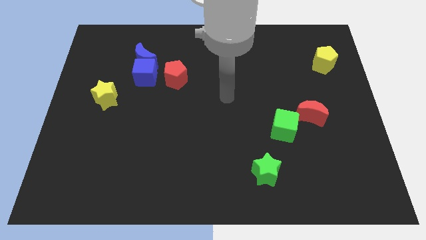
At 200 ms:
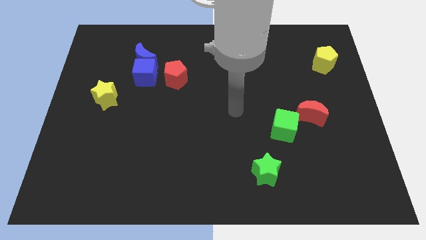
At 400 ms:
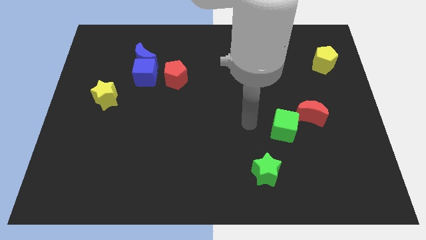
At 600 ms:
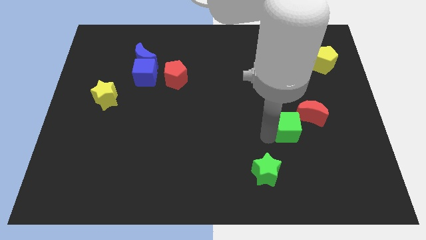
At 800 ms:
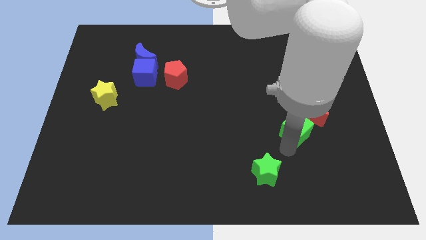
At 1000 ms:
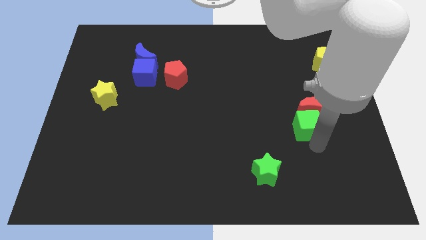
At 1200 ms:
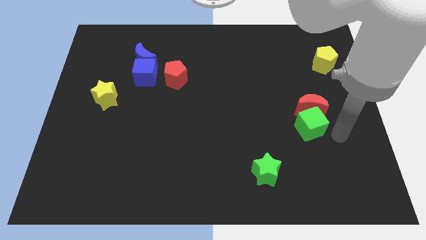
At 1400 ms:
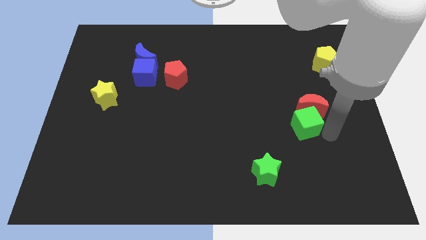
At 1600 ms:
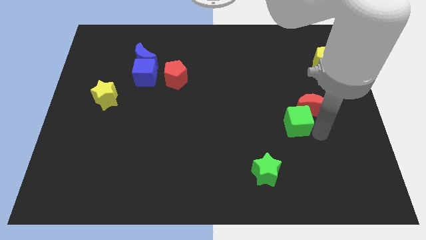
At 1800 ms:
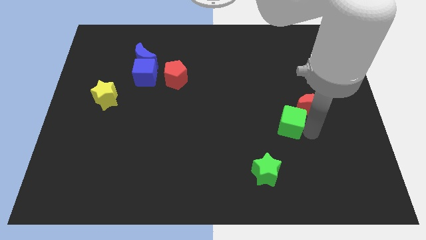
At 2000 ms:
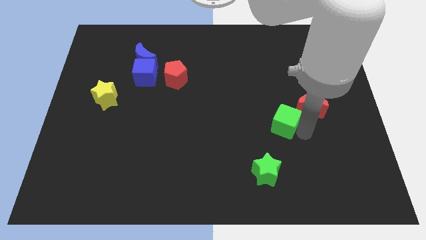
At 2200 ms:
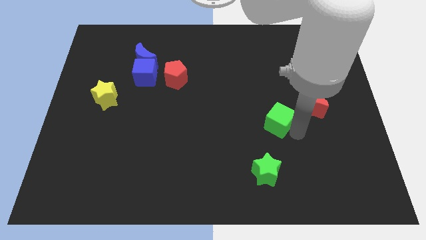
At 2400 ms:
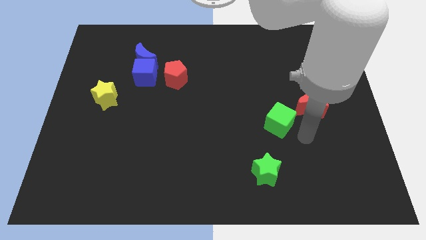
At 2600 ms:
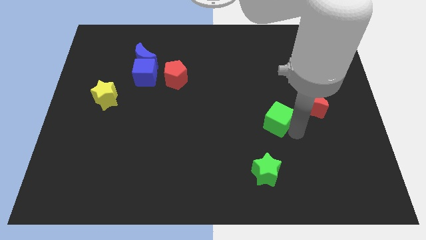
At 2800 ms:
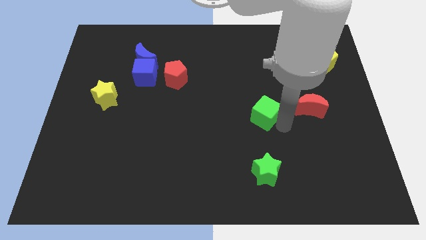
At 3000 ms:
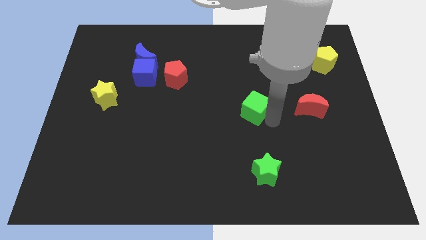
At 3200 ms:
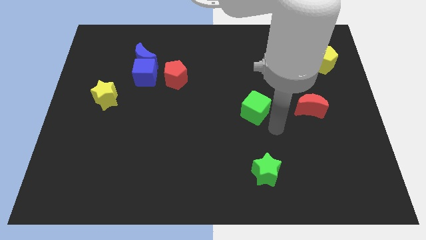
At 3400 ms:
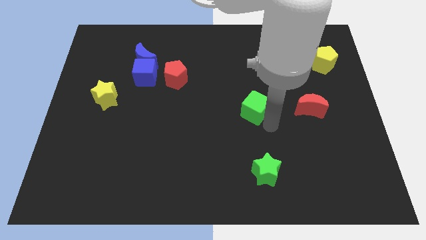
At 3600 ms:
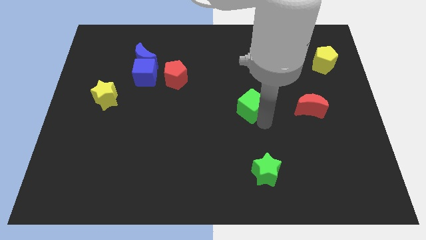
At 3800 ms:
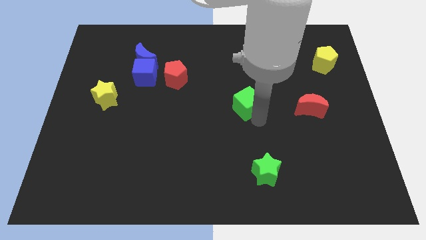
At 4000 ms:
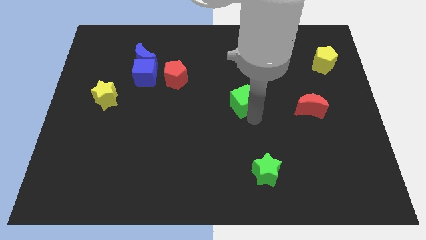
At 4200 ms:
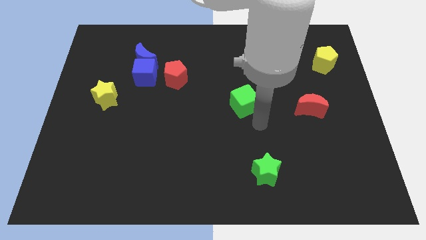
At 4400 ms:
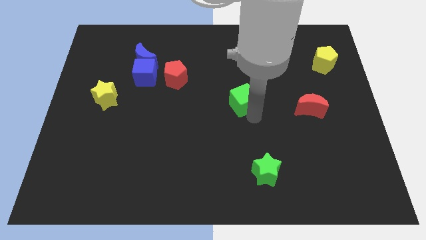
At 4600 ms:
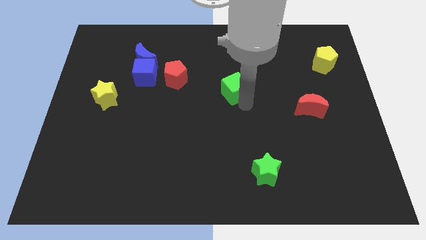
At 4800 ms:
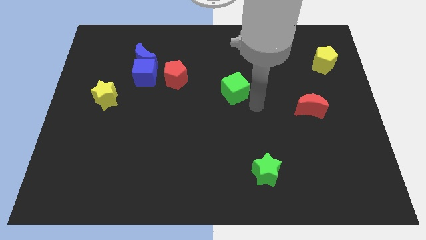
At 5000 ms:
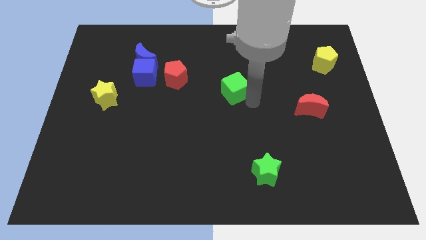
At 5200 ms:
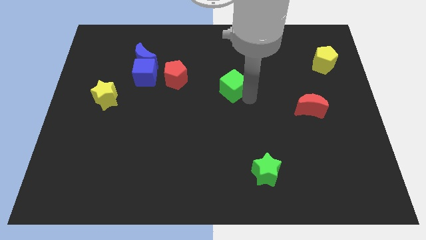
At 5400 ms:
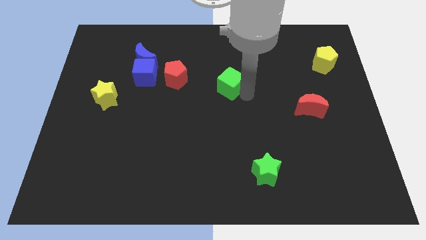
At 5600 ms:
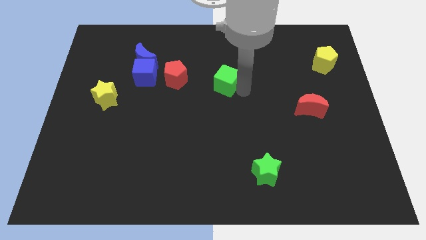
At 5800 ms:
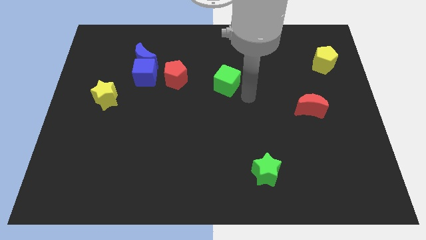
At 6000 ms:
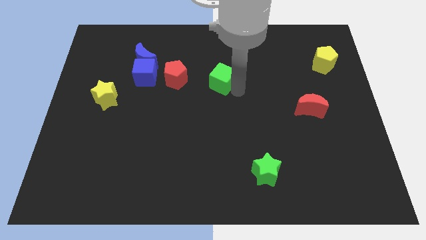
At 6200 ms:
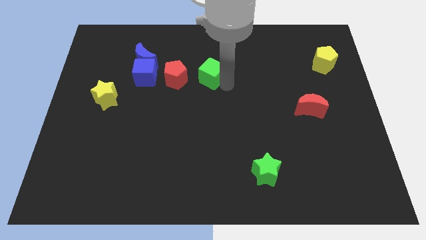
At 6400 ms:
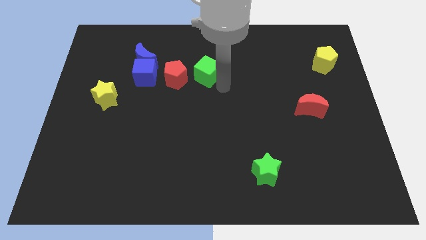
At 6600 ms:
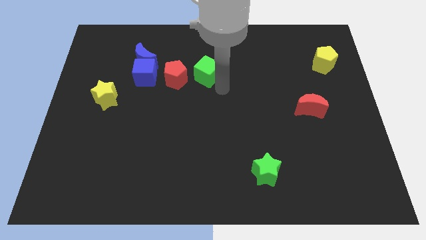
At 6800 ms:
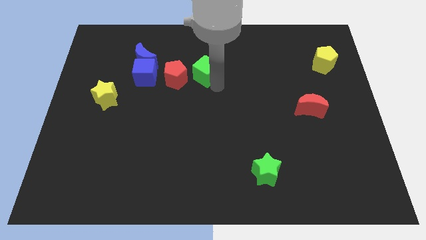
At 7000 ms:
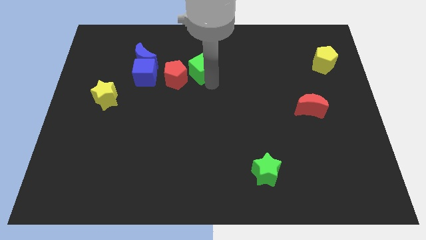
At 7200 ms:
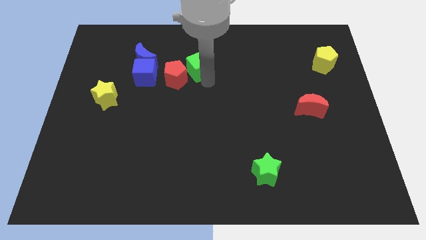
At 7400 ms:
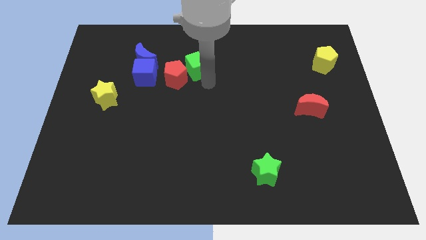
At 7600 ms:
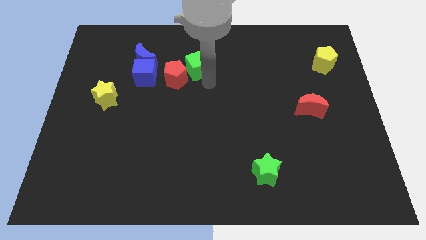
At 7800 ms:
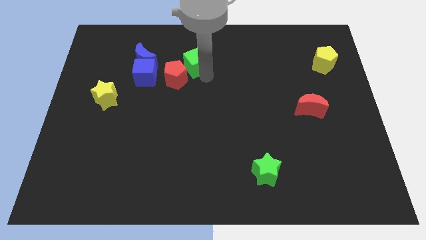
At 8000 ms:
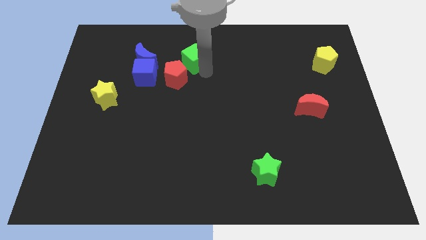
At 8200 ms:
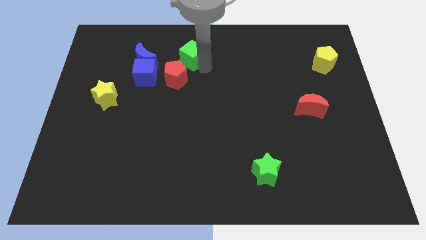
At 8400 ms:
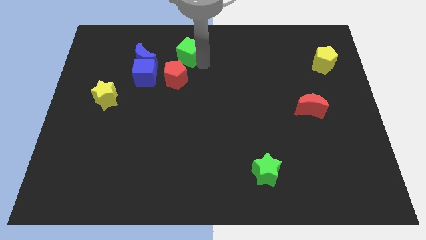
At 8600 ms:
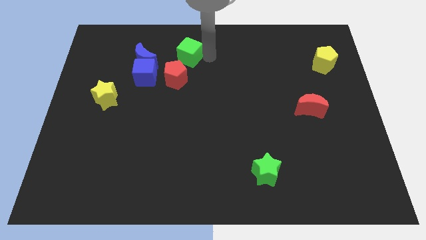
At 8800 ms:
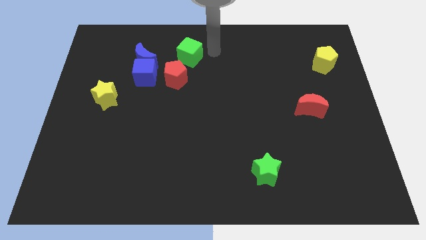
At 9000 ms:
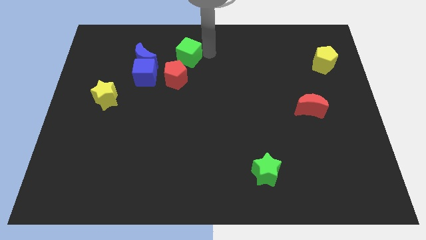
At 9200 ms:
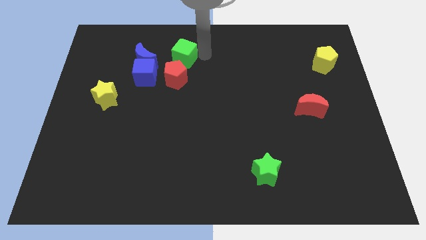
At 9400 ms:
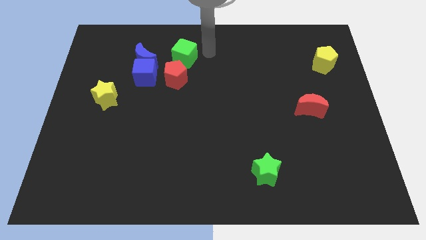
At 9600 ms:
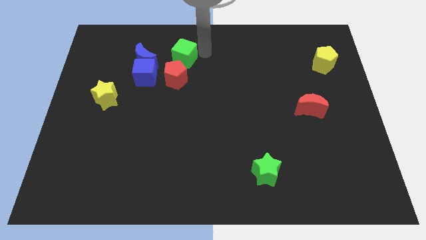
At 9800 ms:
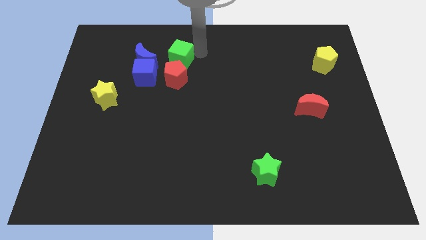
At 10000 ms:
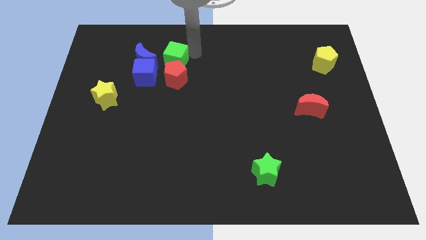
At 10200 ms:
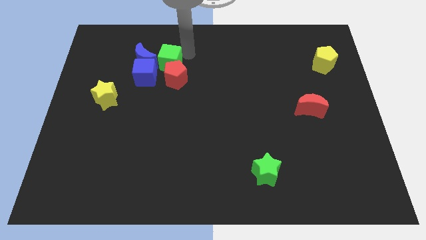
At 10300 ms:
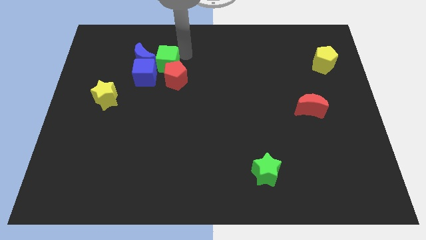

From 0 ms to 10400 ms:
put the green cube close to the blue moon

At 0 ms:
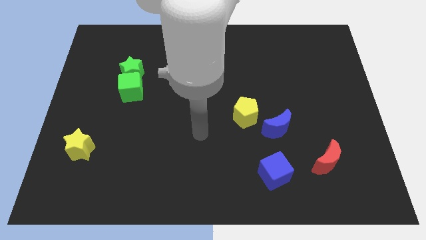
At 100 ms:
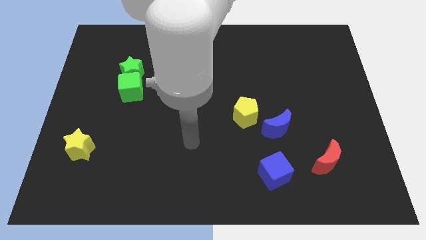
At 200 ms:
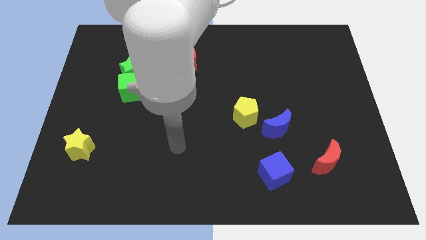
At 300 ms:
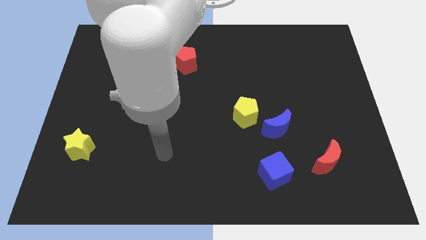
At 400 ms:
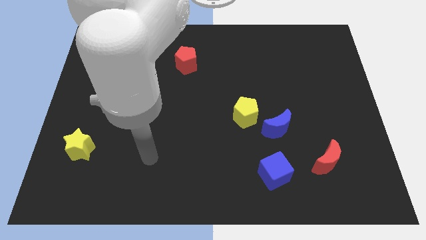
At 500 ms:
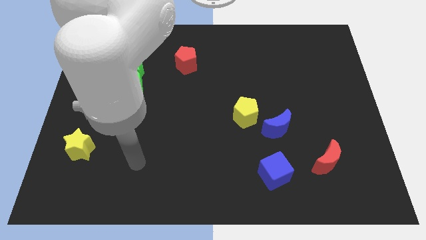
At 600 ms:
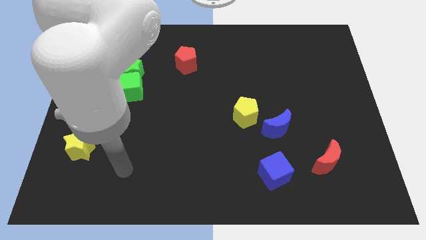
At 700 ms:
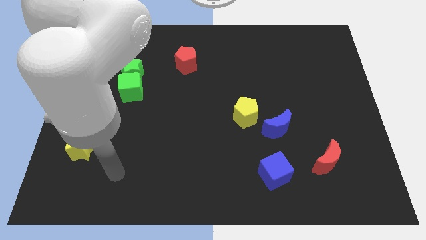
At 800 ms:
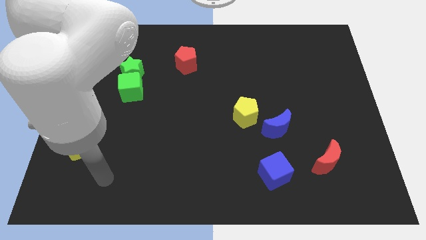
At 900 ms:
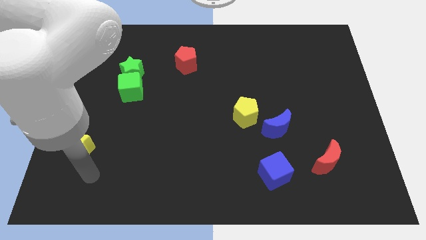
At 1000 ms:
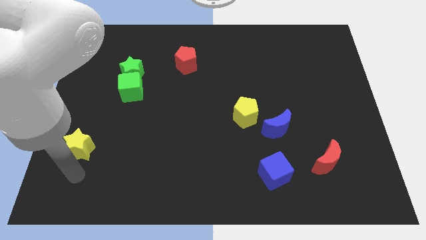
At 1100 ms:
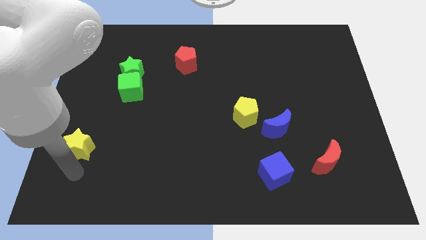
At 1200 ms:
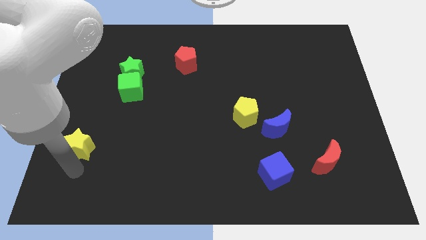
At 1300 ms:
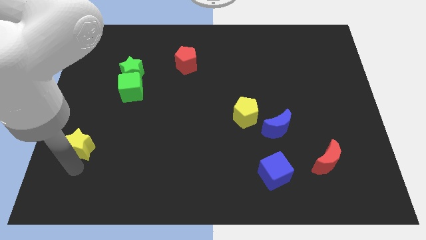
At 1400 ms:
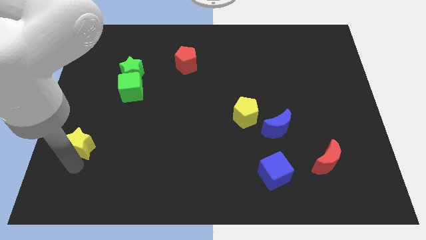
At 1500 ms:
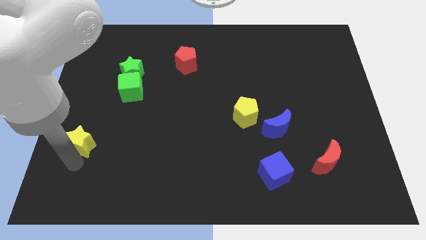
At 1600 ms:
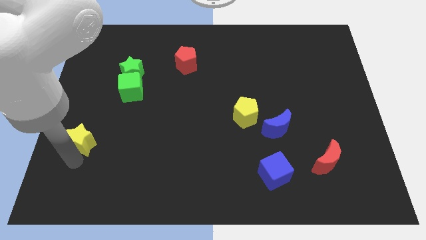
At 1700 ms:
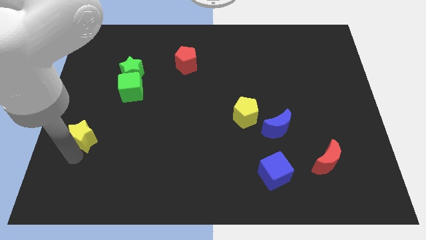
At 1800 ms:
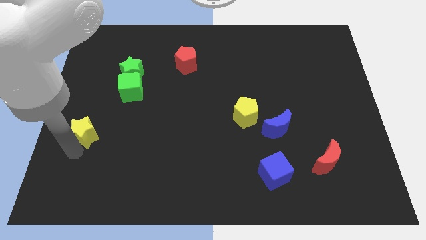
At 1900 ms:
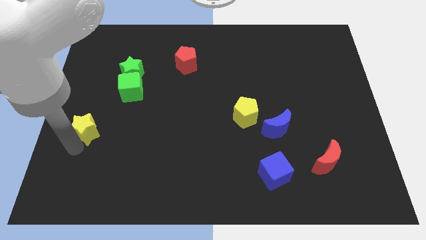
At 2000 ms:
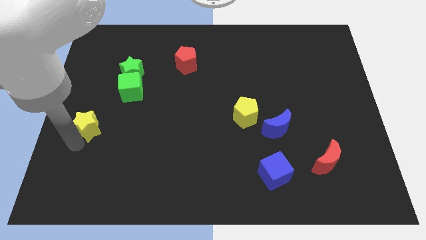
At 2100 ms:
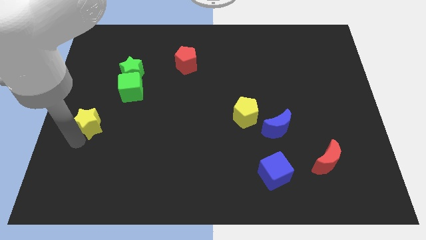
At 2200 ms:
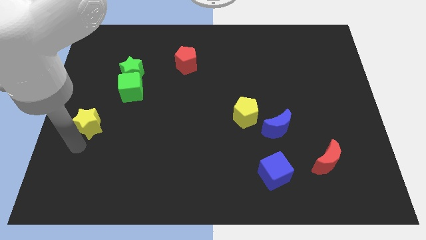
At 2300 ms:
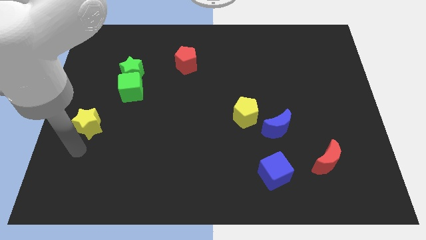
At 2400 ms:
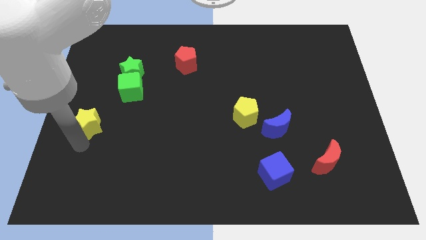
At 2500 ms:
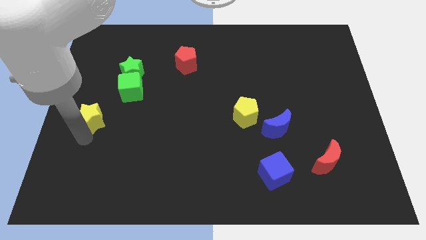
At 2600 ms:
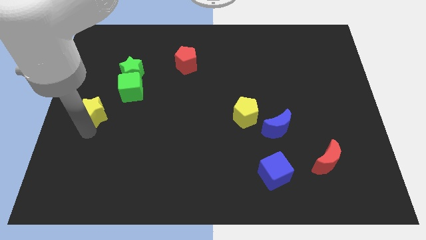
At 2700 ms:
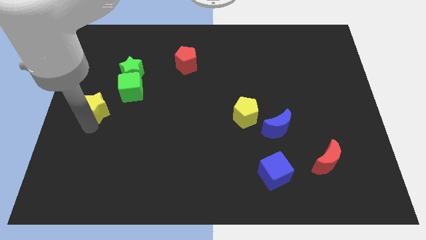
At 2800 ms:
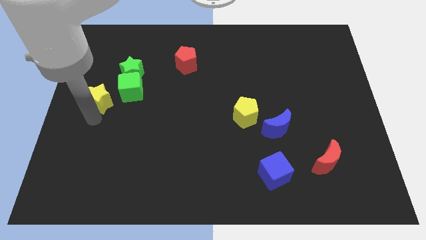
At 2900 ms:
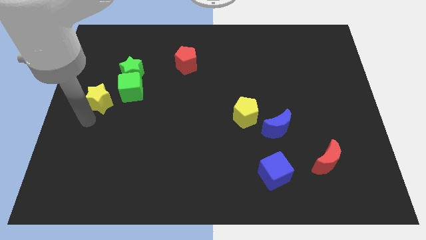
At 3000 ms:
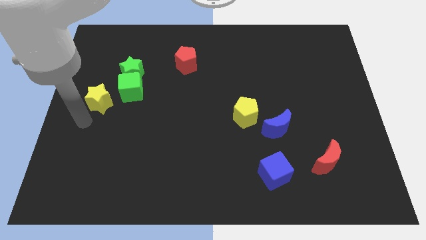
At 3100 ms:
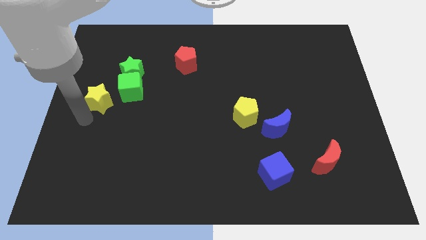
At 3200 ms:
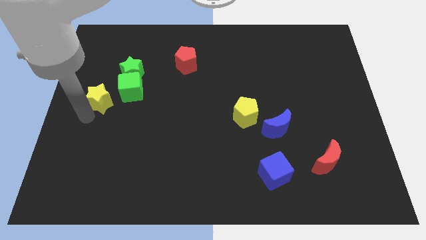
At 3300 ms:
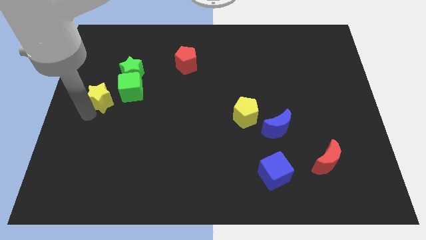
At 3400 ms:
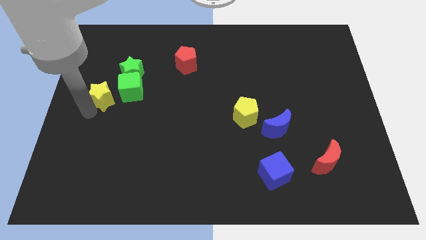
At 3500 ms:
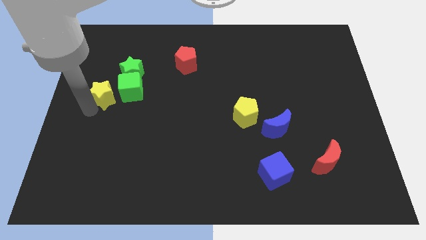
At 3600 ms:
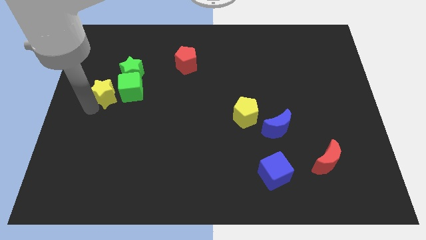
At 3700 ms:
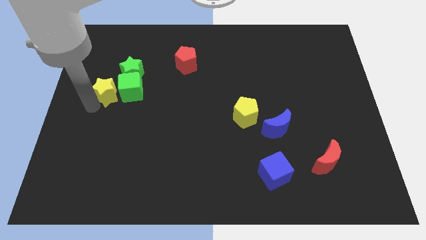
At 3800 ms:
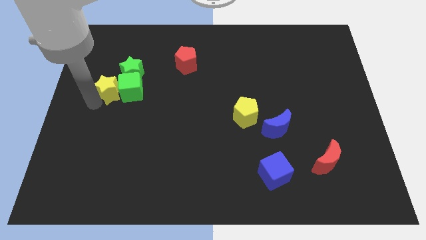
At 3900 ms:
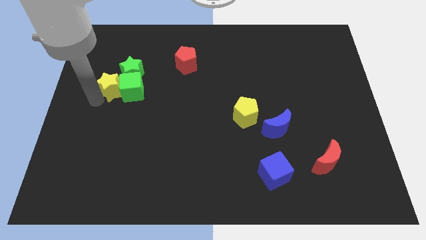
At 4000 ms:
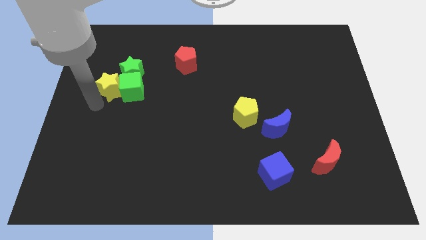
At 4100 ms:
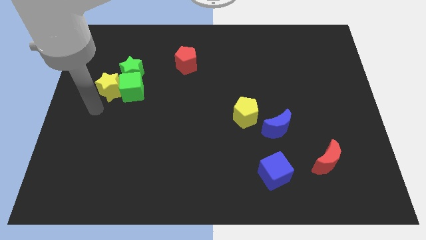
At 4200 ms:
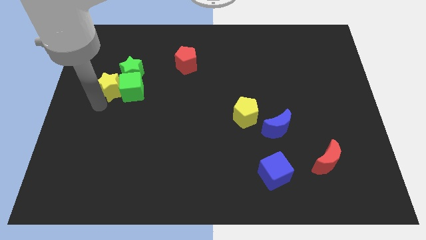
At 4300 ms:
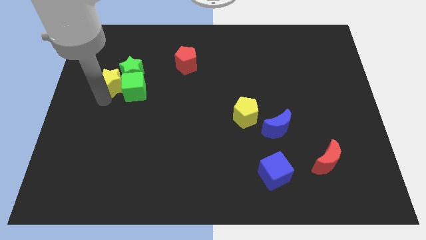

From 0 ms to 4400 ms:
put the yellow star close to the green star
